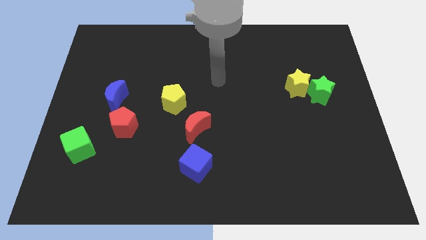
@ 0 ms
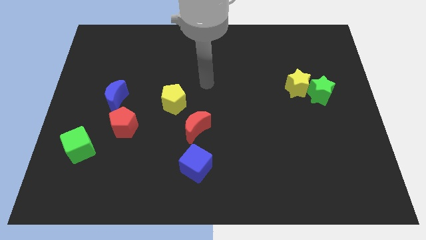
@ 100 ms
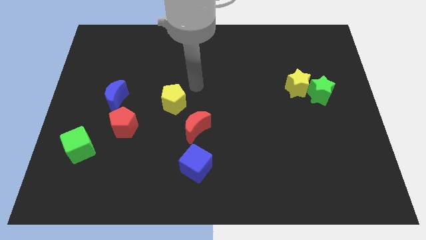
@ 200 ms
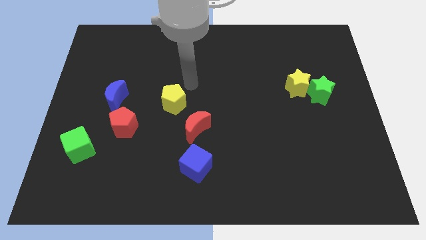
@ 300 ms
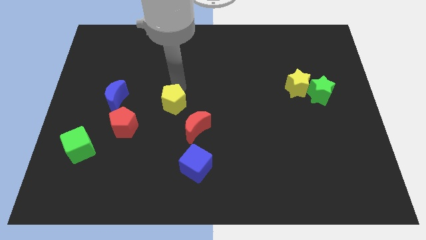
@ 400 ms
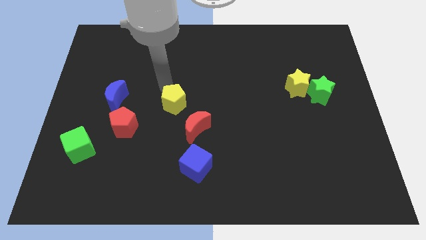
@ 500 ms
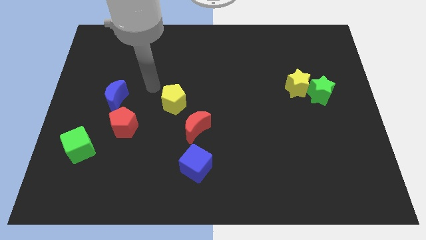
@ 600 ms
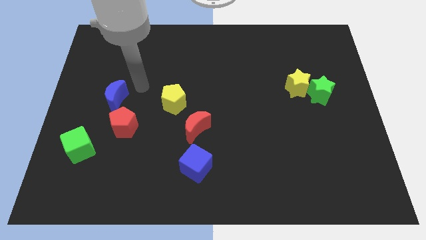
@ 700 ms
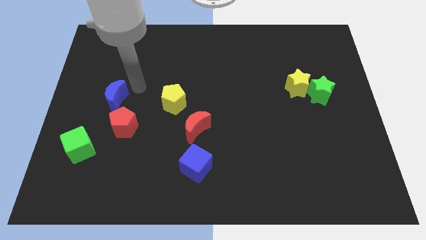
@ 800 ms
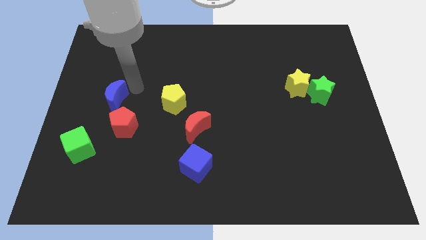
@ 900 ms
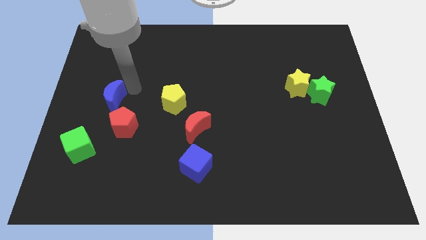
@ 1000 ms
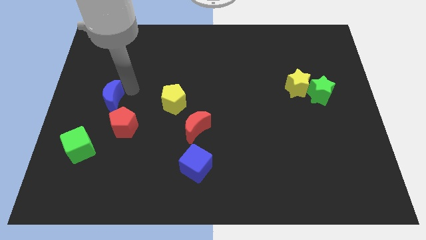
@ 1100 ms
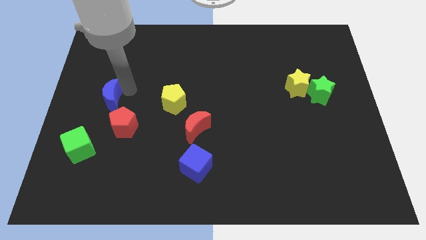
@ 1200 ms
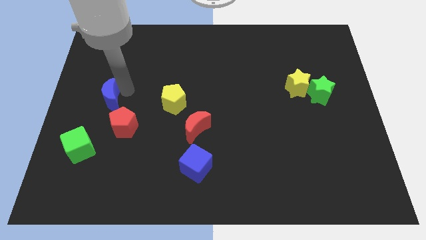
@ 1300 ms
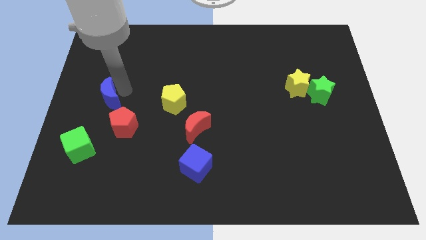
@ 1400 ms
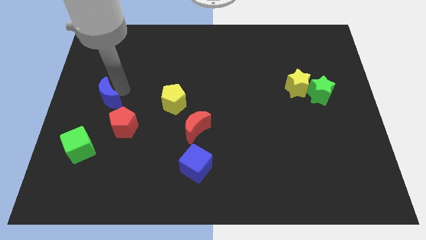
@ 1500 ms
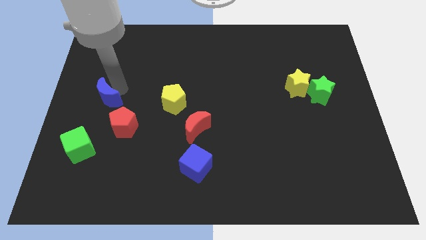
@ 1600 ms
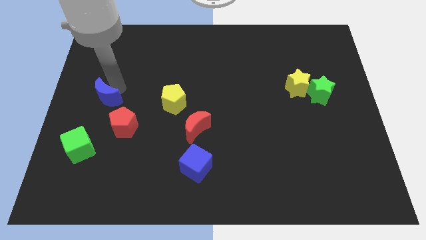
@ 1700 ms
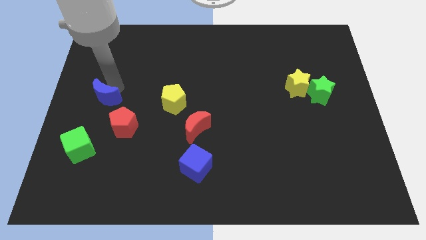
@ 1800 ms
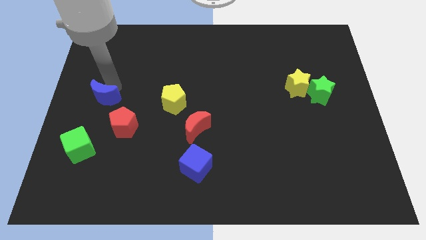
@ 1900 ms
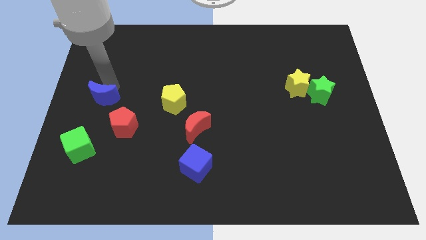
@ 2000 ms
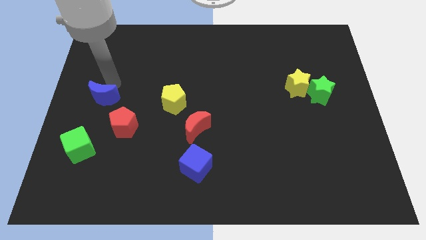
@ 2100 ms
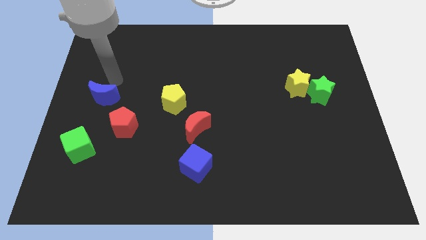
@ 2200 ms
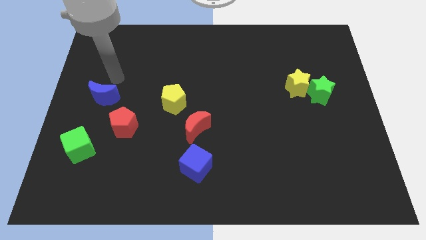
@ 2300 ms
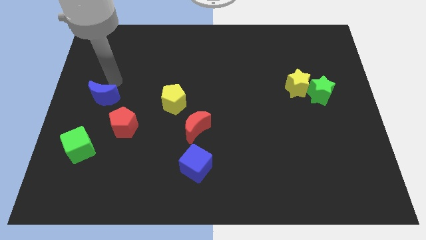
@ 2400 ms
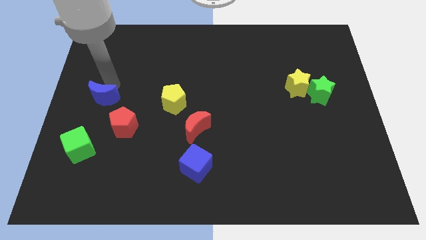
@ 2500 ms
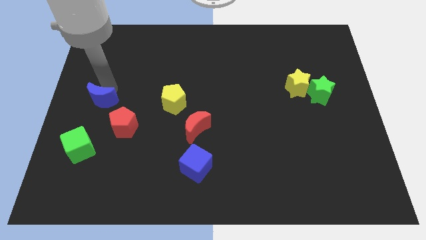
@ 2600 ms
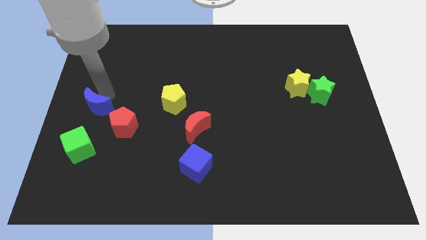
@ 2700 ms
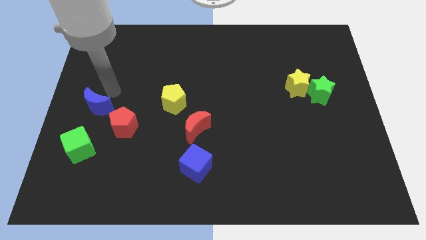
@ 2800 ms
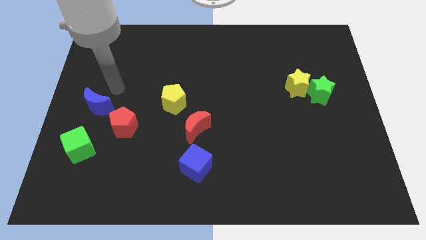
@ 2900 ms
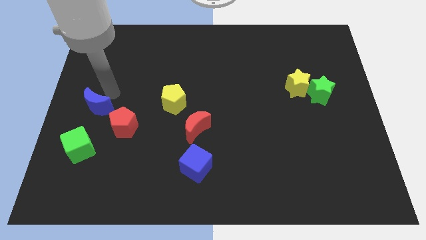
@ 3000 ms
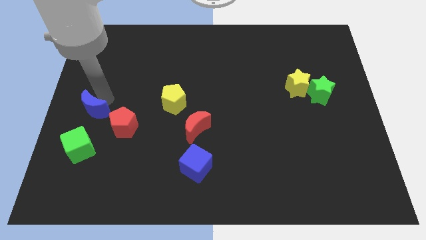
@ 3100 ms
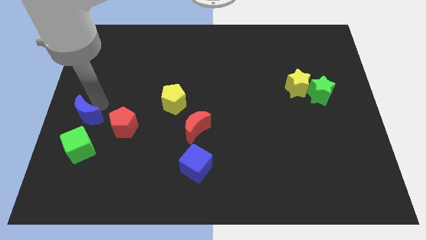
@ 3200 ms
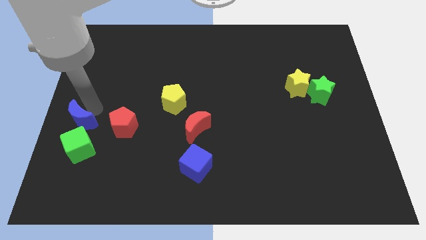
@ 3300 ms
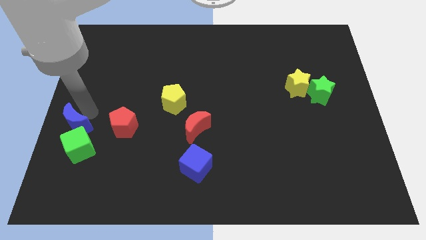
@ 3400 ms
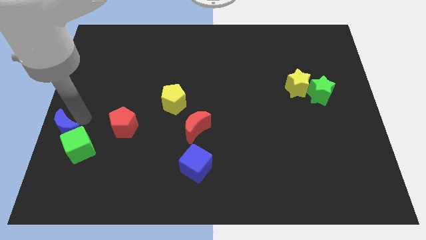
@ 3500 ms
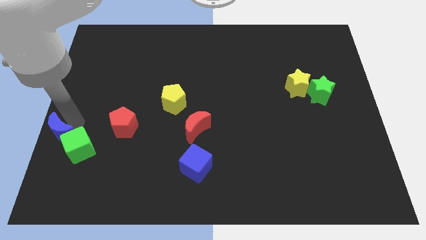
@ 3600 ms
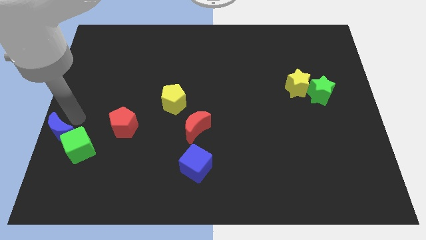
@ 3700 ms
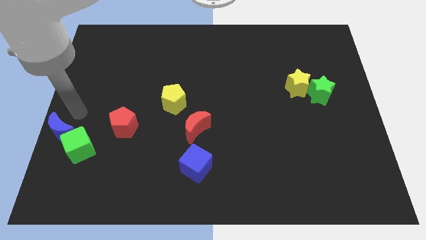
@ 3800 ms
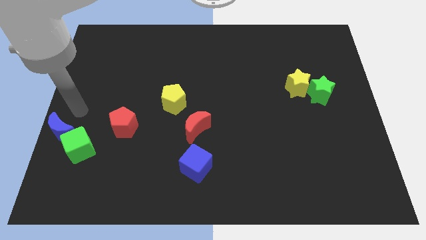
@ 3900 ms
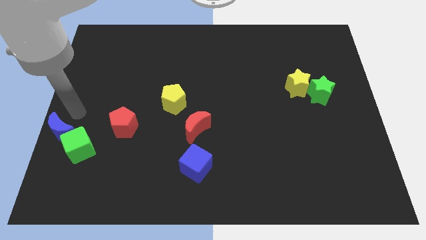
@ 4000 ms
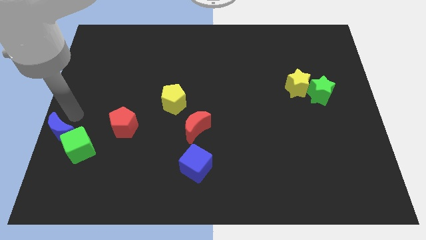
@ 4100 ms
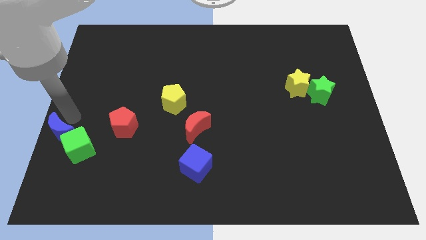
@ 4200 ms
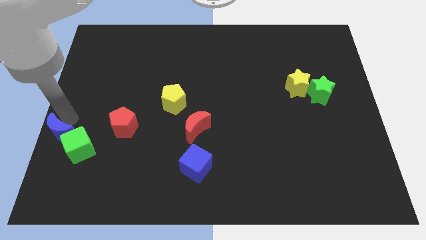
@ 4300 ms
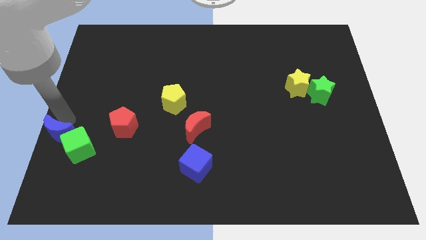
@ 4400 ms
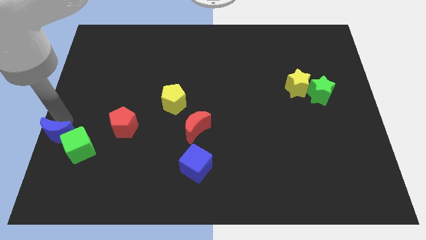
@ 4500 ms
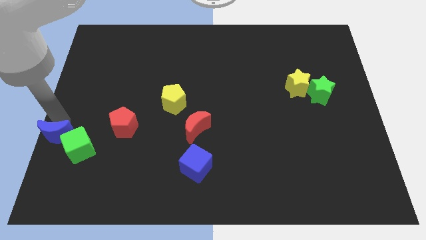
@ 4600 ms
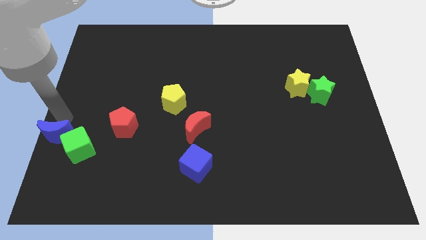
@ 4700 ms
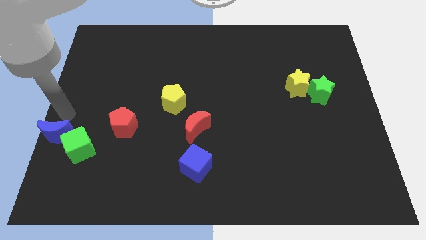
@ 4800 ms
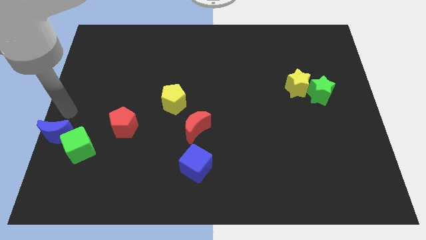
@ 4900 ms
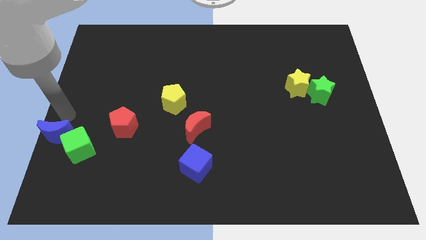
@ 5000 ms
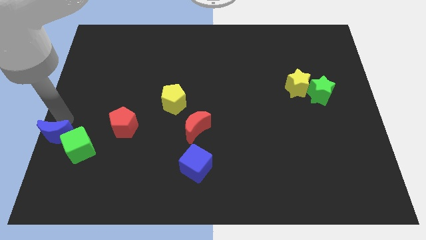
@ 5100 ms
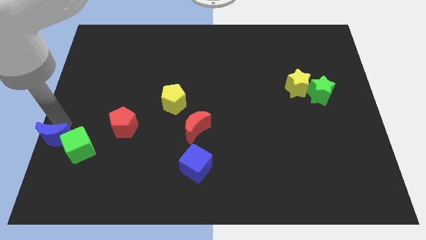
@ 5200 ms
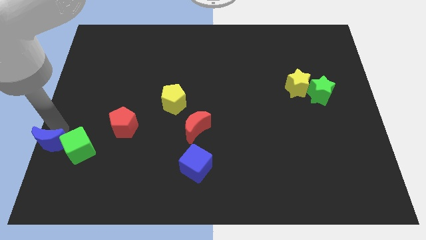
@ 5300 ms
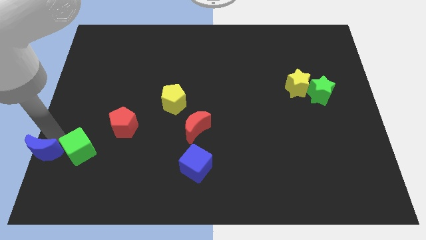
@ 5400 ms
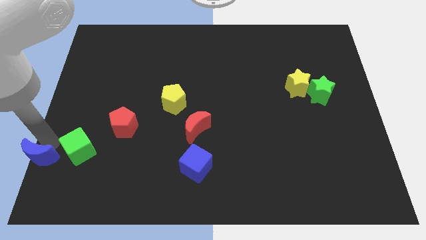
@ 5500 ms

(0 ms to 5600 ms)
push the blue moon to the bottom left

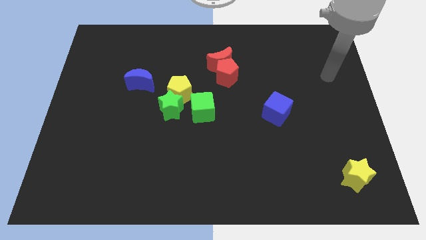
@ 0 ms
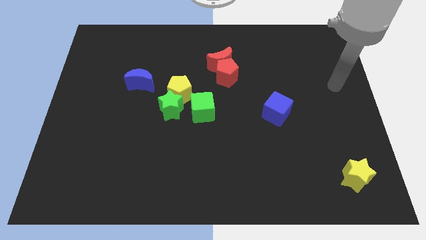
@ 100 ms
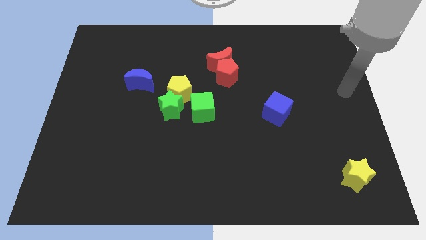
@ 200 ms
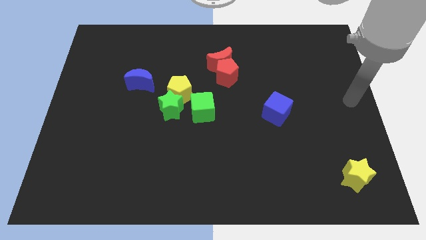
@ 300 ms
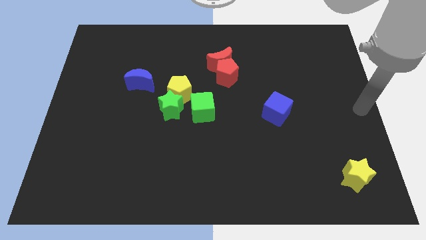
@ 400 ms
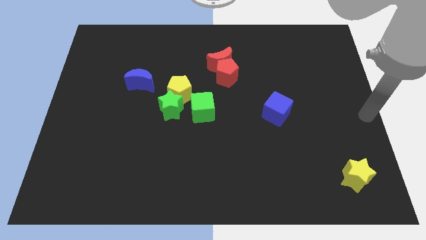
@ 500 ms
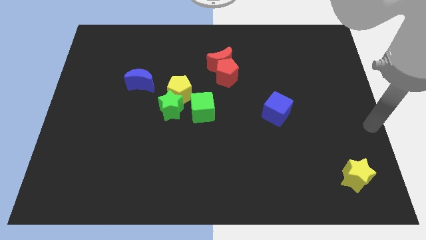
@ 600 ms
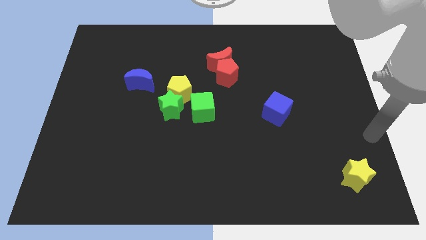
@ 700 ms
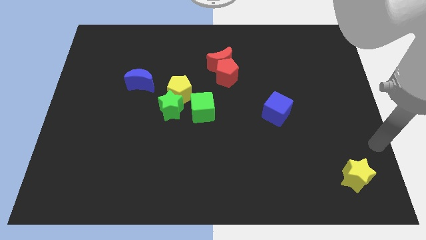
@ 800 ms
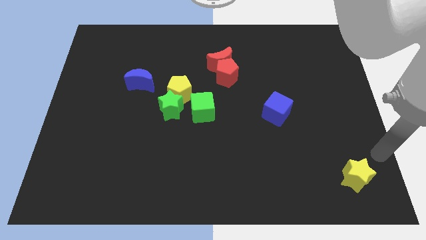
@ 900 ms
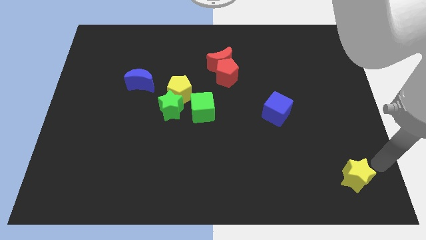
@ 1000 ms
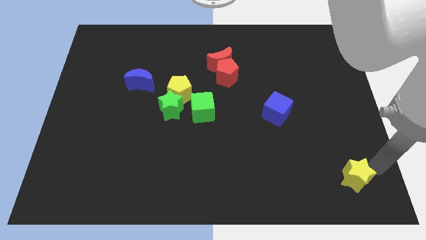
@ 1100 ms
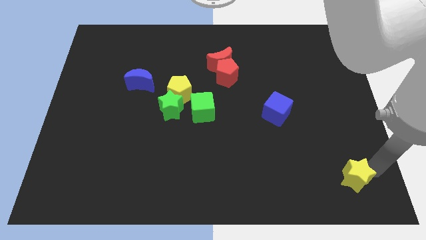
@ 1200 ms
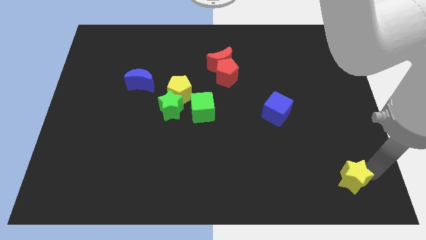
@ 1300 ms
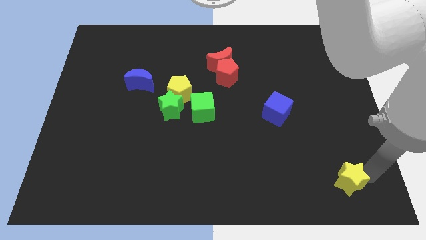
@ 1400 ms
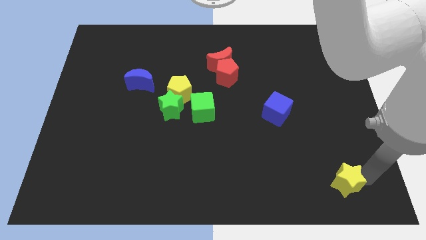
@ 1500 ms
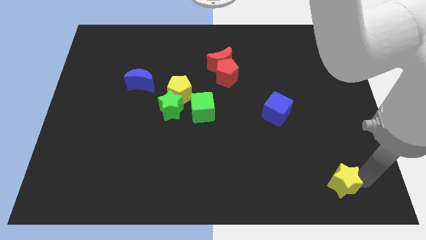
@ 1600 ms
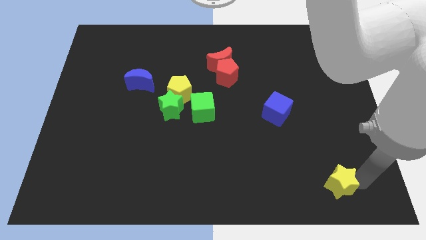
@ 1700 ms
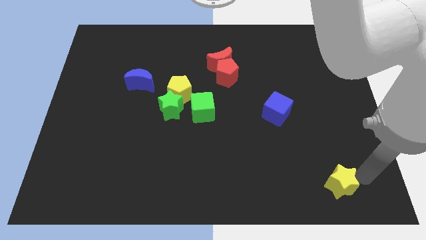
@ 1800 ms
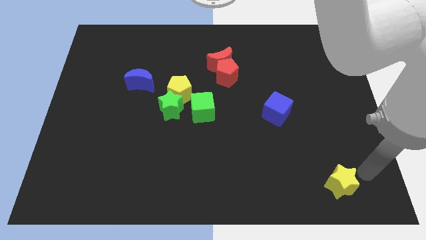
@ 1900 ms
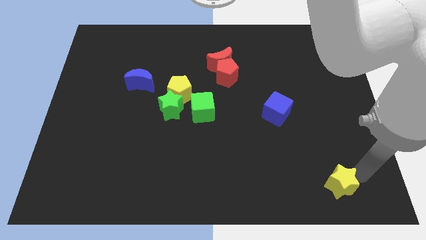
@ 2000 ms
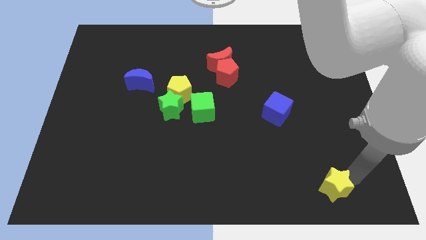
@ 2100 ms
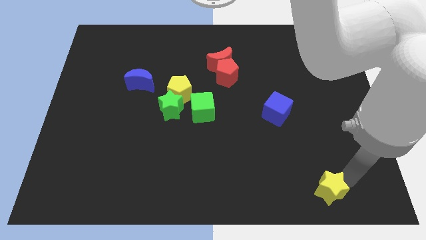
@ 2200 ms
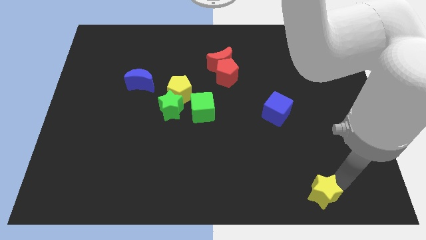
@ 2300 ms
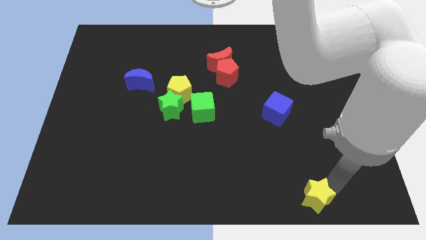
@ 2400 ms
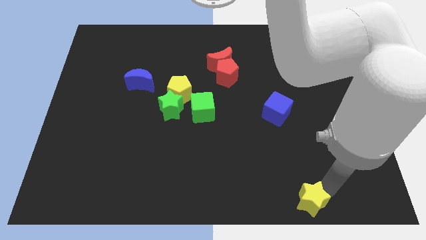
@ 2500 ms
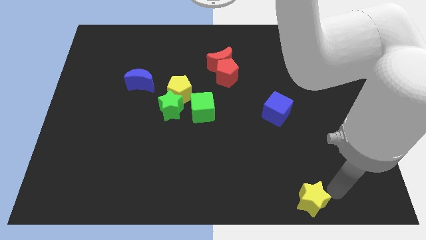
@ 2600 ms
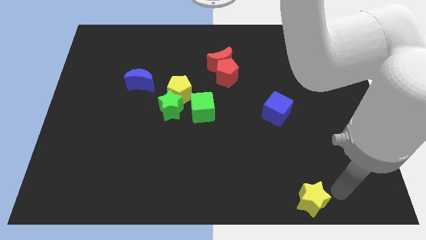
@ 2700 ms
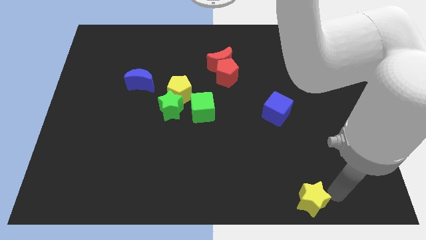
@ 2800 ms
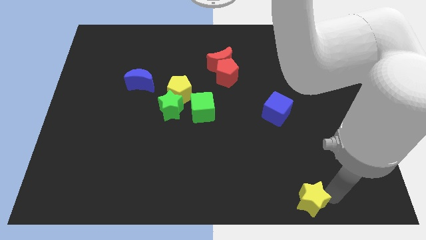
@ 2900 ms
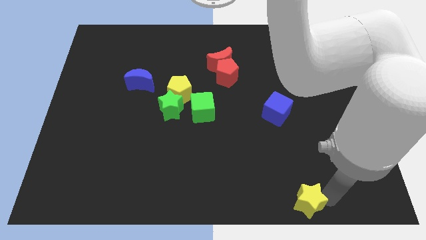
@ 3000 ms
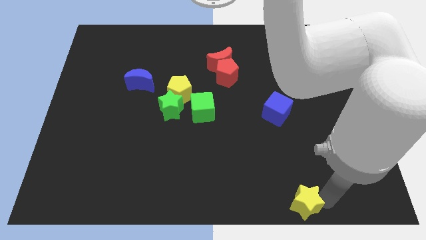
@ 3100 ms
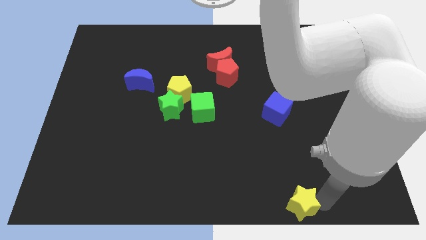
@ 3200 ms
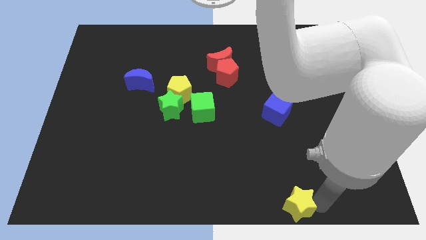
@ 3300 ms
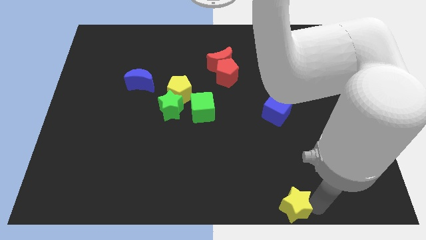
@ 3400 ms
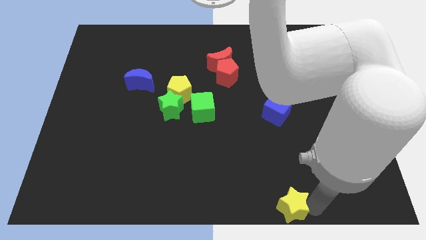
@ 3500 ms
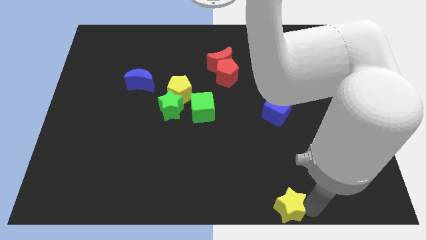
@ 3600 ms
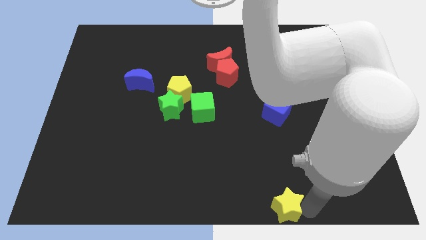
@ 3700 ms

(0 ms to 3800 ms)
push the yellow star to the bottom
